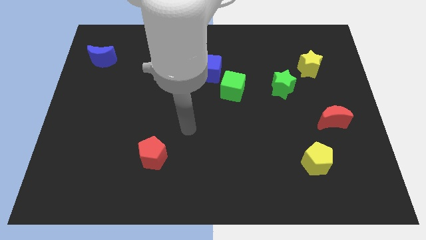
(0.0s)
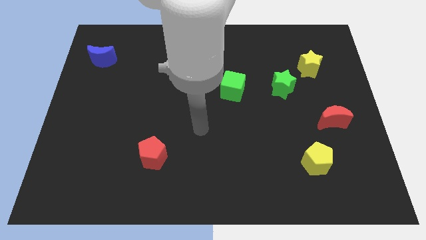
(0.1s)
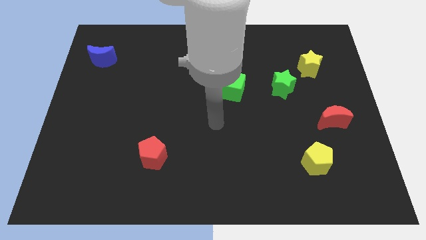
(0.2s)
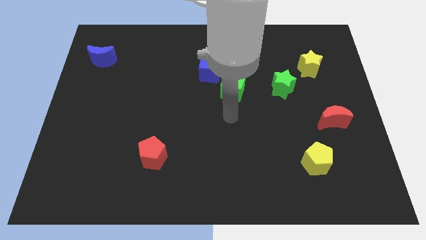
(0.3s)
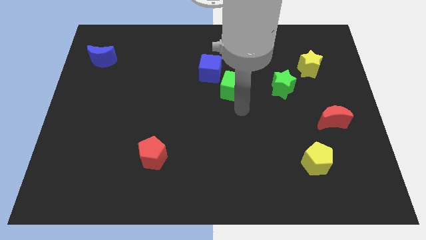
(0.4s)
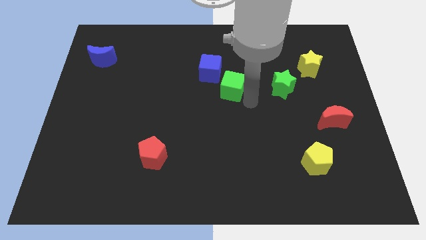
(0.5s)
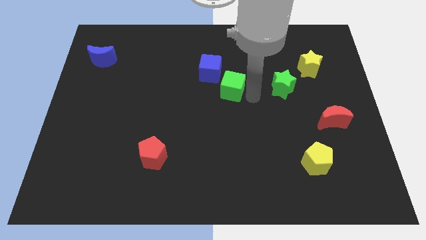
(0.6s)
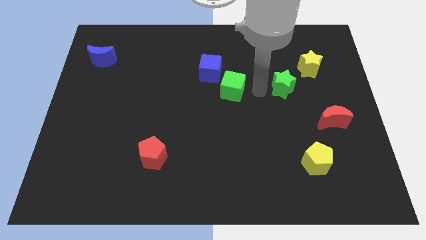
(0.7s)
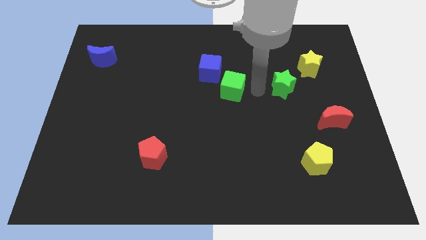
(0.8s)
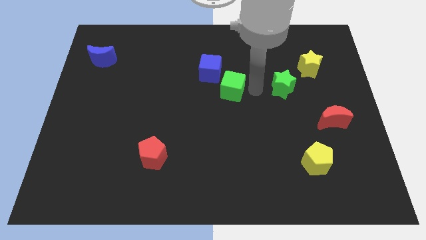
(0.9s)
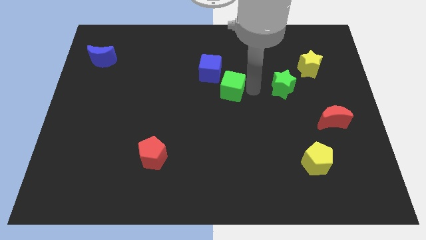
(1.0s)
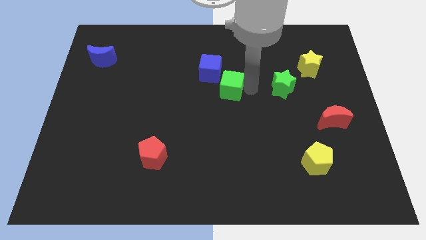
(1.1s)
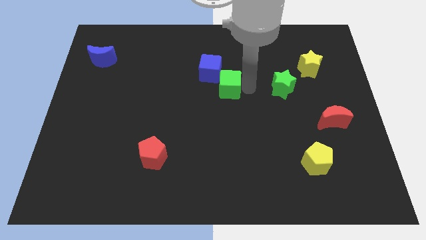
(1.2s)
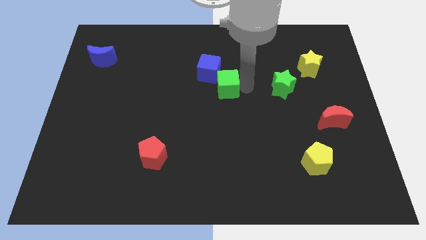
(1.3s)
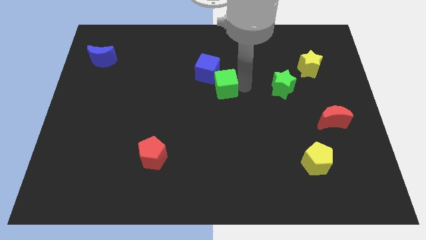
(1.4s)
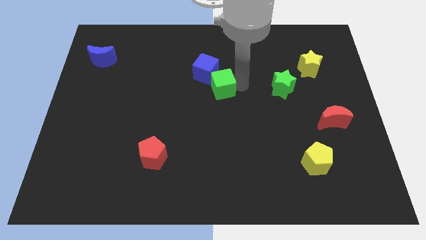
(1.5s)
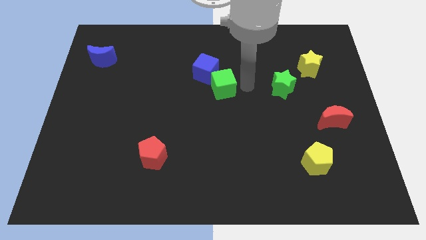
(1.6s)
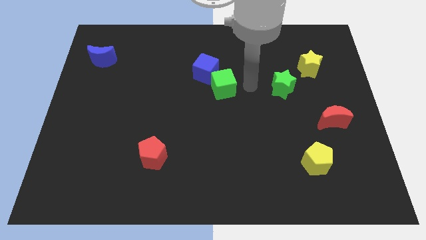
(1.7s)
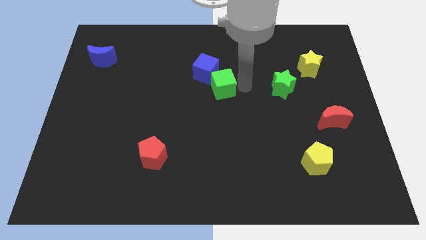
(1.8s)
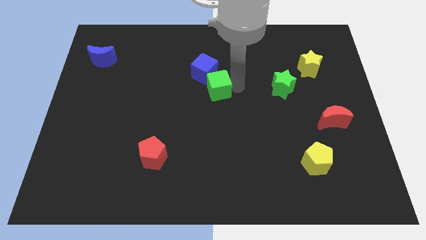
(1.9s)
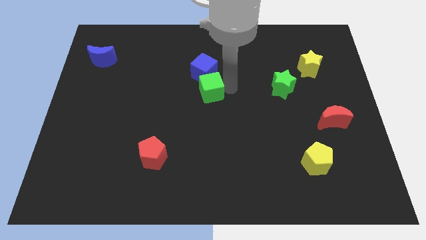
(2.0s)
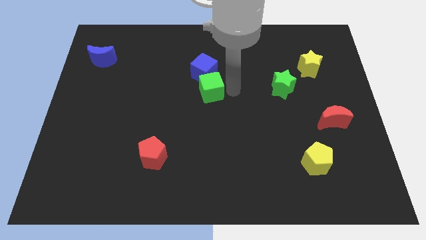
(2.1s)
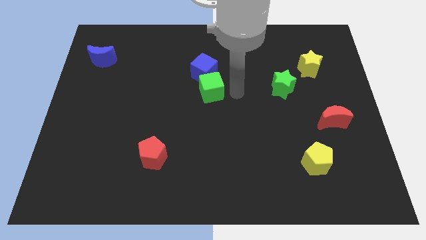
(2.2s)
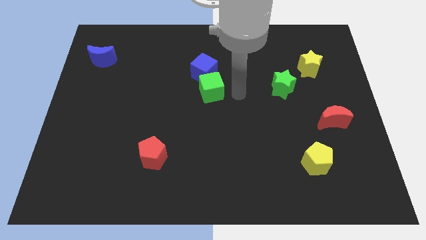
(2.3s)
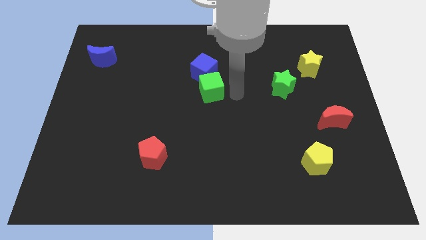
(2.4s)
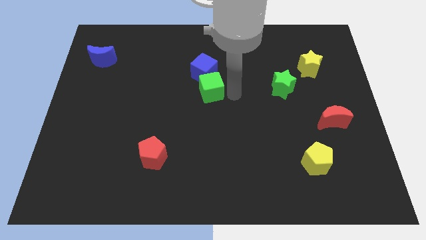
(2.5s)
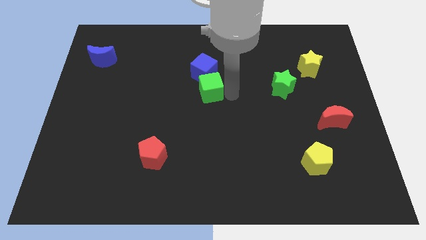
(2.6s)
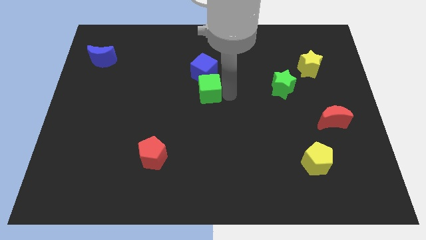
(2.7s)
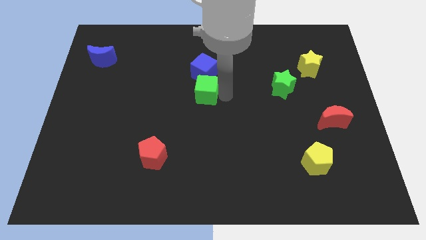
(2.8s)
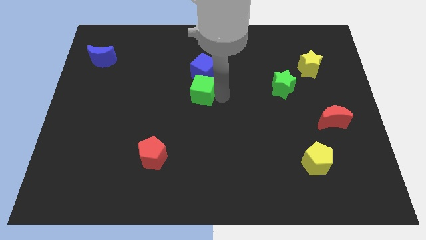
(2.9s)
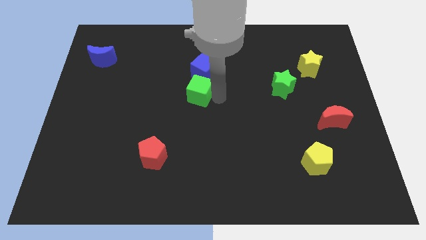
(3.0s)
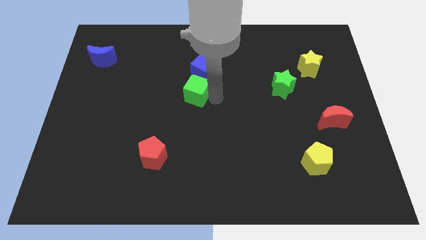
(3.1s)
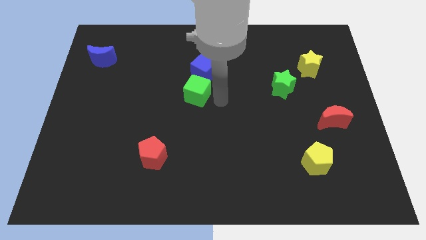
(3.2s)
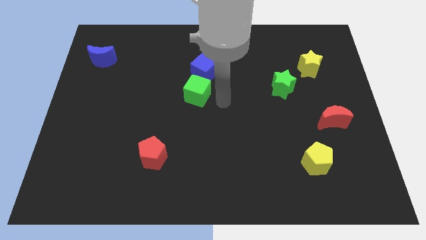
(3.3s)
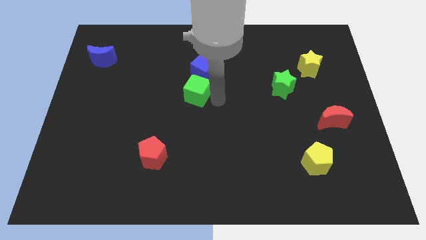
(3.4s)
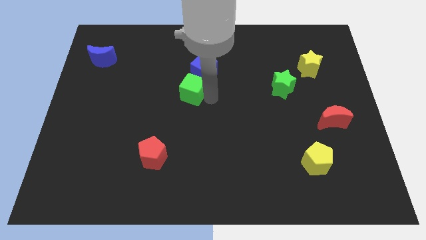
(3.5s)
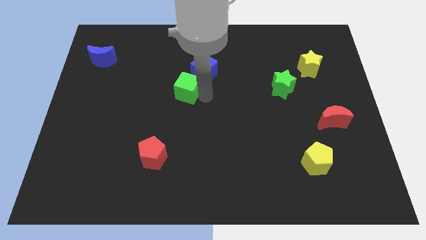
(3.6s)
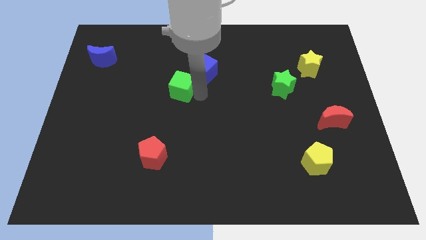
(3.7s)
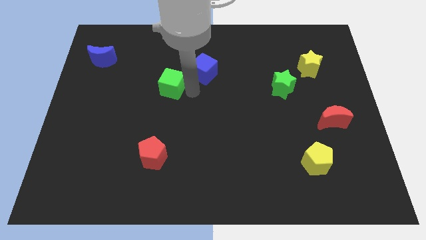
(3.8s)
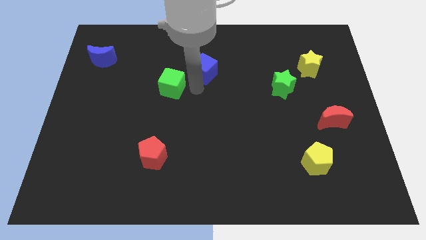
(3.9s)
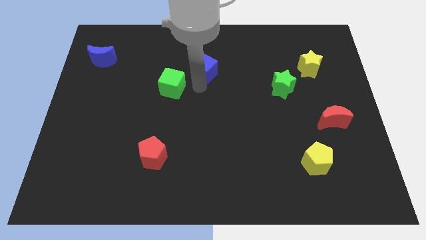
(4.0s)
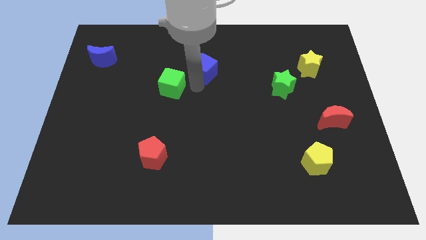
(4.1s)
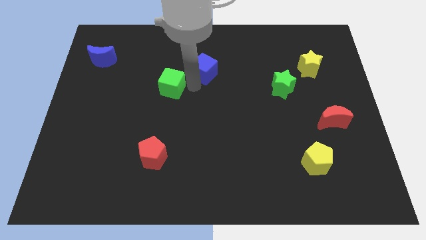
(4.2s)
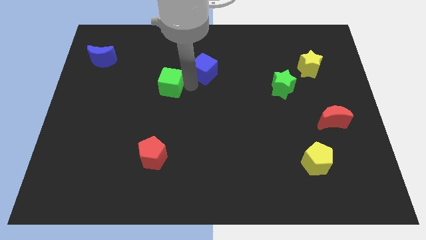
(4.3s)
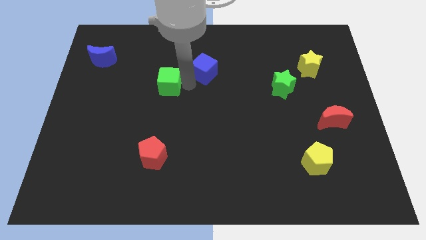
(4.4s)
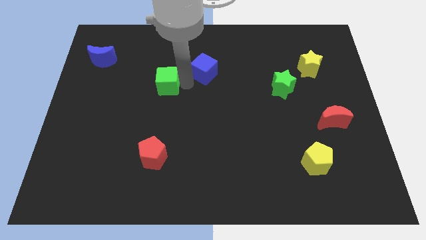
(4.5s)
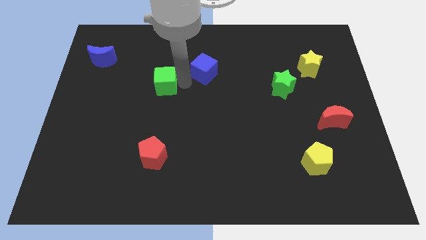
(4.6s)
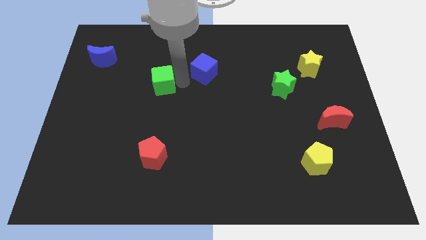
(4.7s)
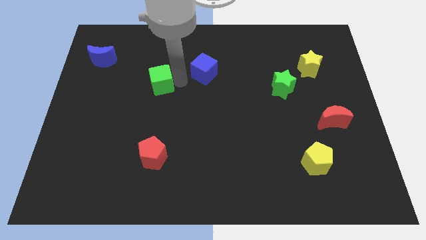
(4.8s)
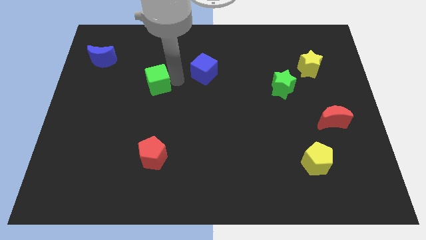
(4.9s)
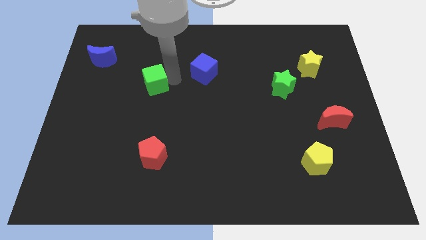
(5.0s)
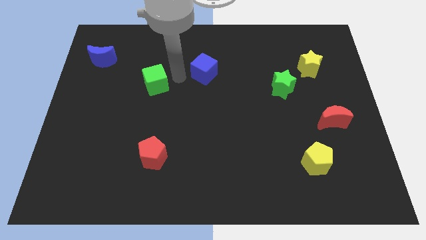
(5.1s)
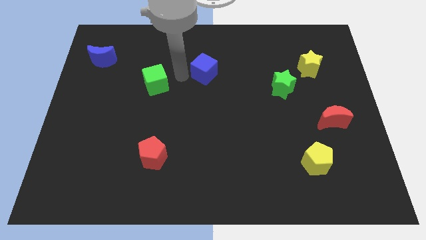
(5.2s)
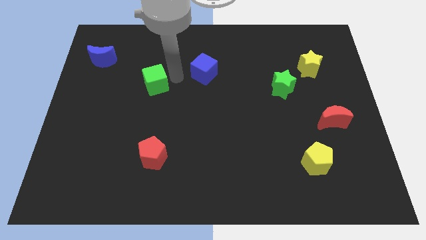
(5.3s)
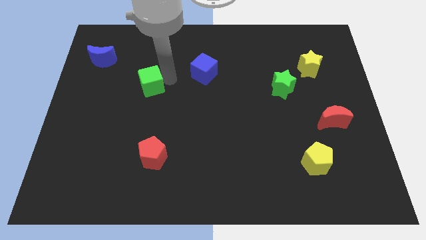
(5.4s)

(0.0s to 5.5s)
move the green cube to the left

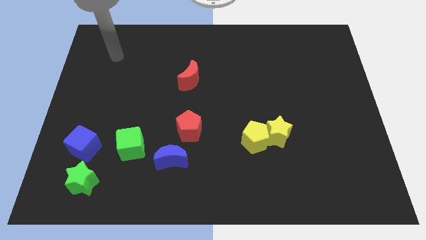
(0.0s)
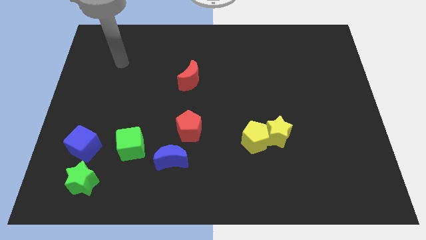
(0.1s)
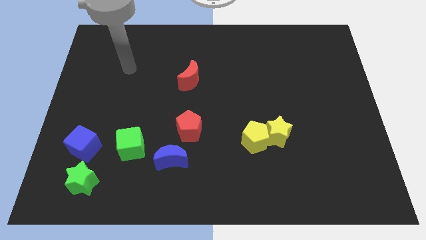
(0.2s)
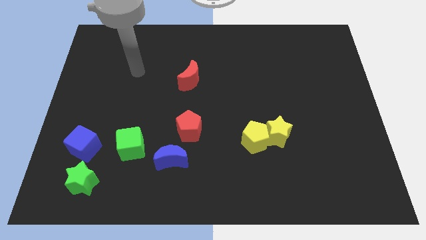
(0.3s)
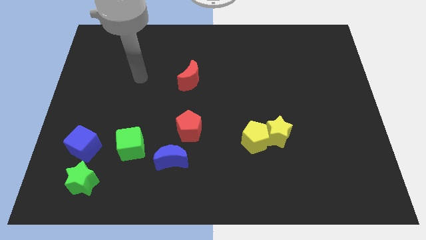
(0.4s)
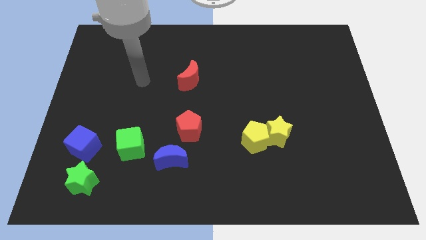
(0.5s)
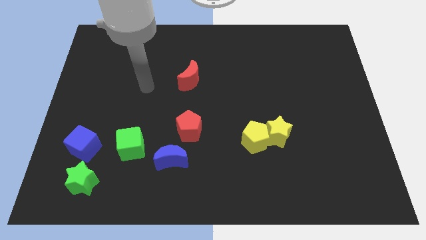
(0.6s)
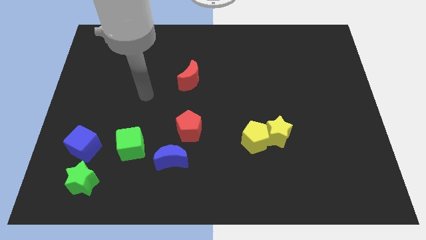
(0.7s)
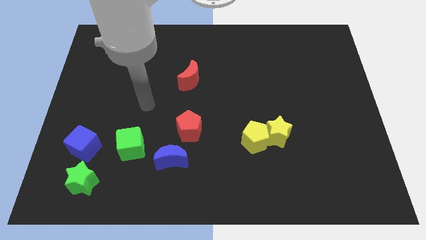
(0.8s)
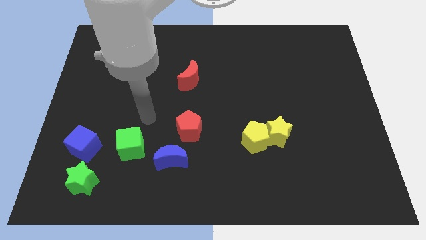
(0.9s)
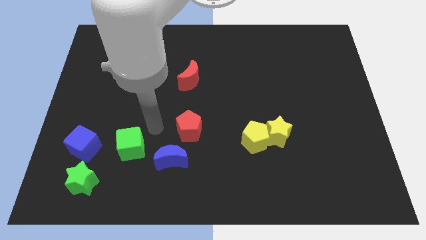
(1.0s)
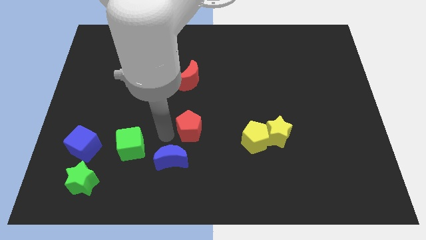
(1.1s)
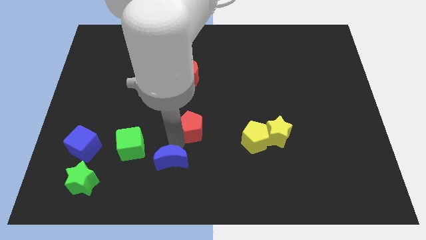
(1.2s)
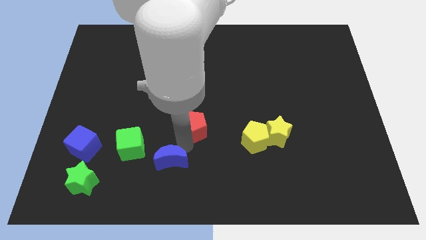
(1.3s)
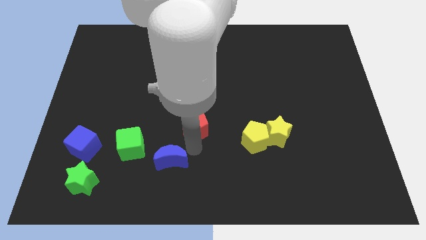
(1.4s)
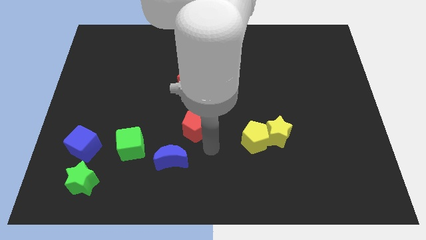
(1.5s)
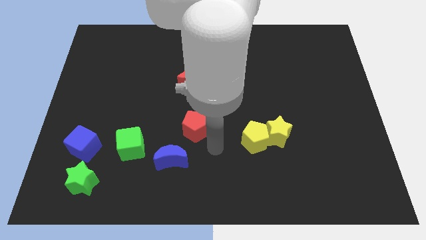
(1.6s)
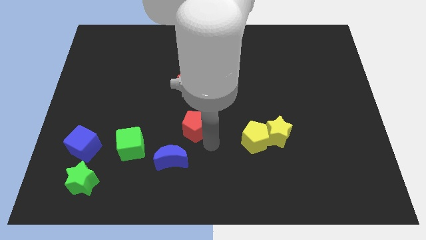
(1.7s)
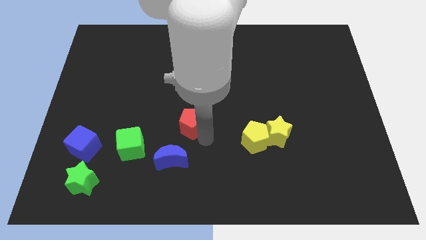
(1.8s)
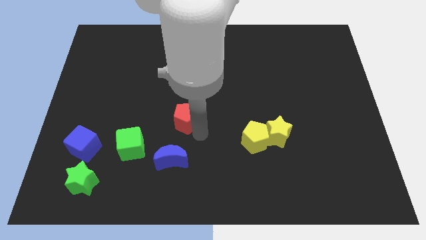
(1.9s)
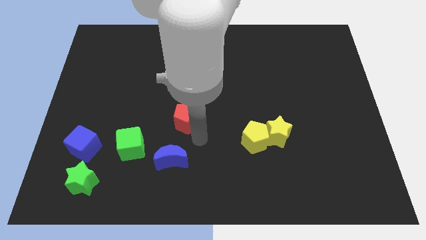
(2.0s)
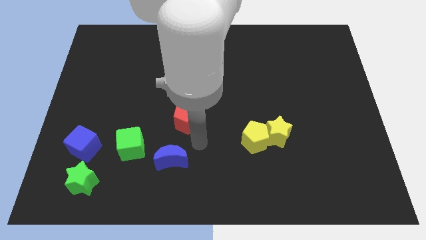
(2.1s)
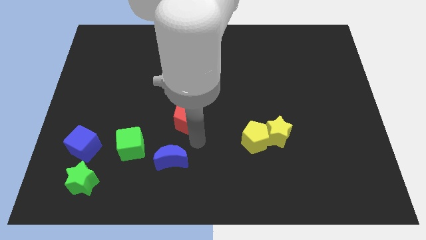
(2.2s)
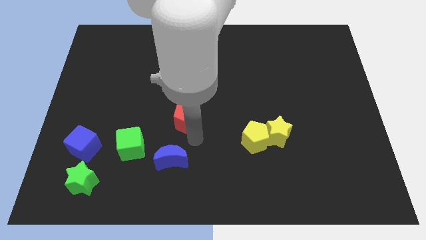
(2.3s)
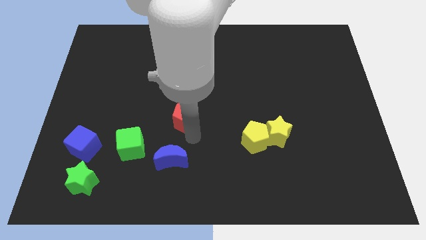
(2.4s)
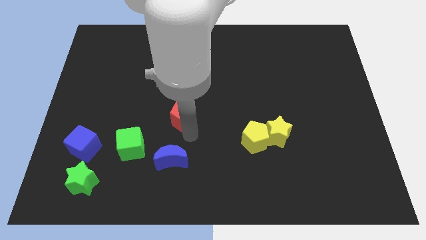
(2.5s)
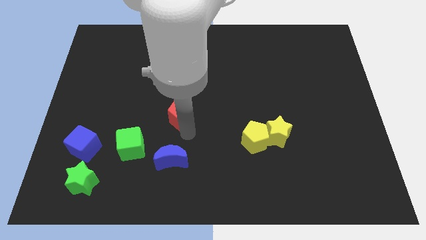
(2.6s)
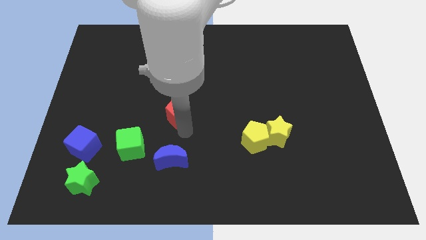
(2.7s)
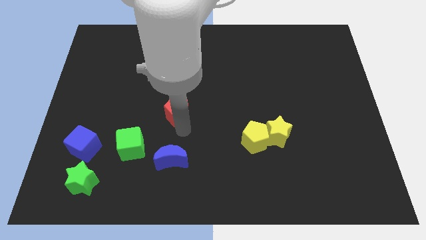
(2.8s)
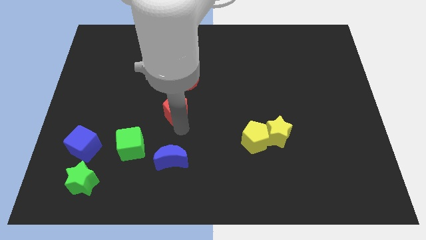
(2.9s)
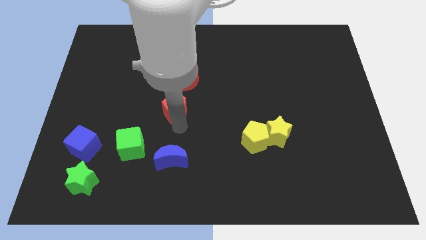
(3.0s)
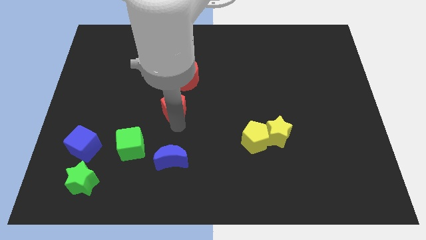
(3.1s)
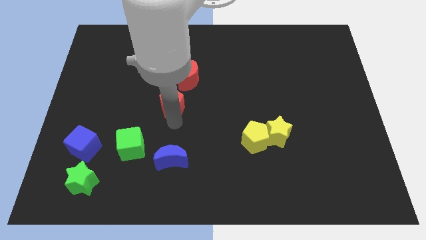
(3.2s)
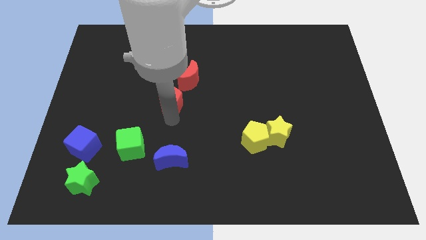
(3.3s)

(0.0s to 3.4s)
slide the red pentagon a little upwards
